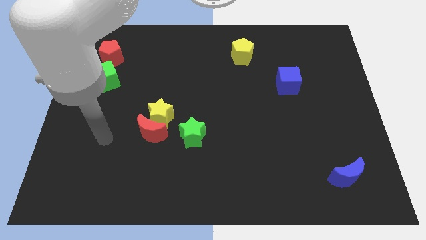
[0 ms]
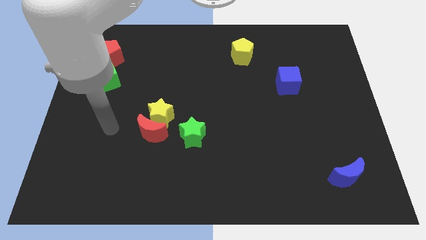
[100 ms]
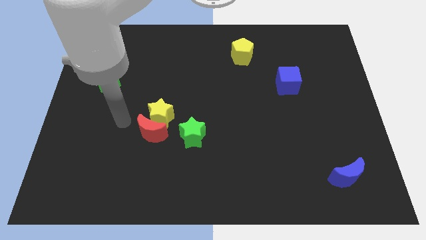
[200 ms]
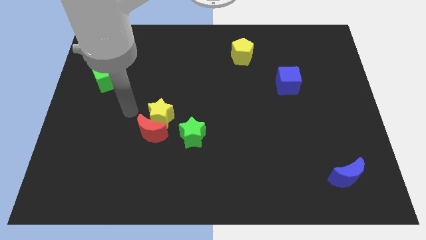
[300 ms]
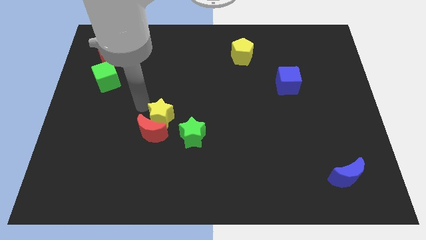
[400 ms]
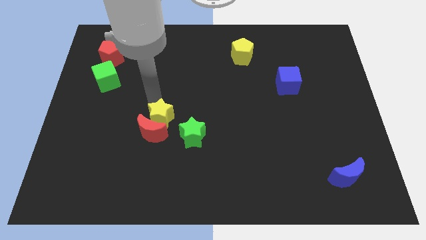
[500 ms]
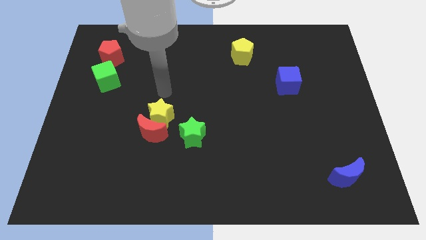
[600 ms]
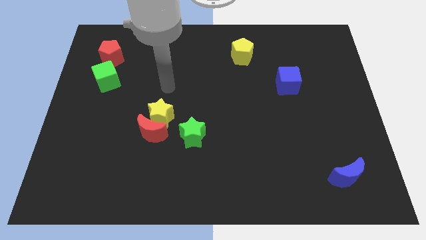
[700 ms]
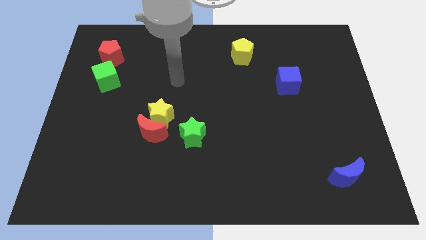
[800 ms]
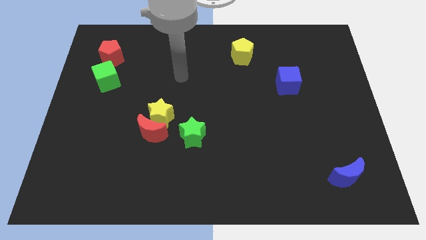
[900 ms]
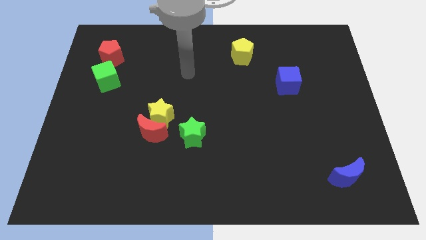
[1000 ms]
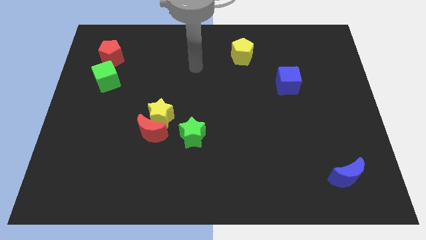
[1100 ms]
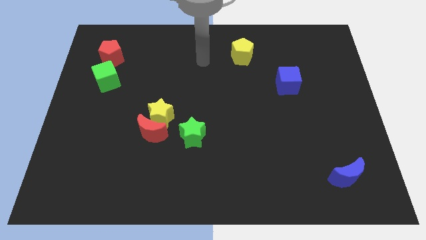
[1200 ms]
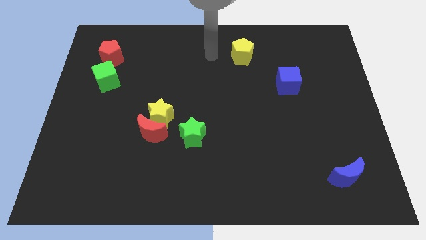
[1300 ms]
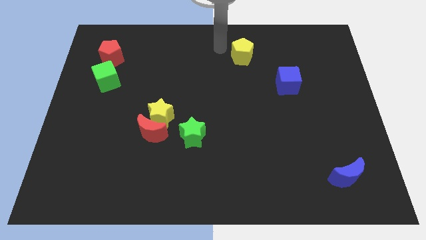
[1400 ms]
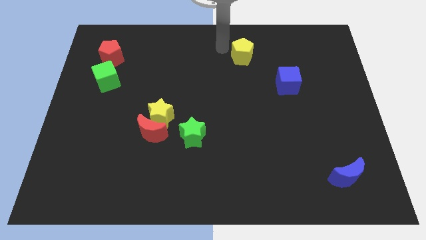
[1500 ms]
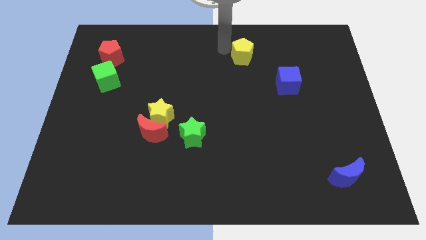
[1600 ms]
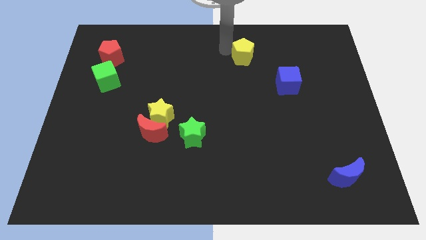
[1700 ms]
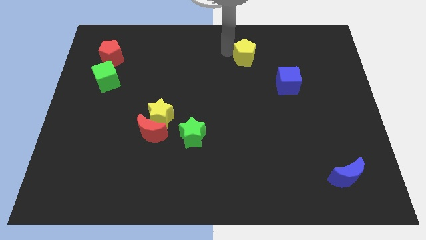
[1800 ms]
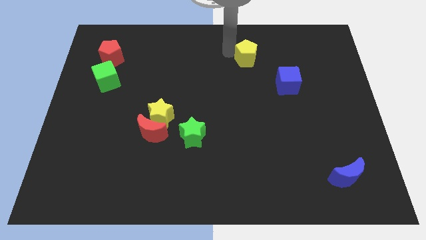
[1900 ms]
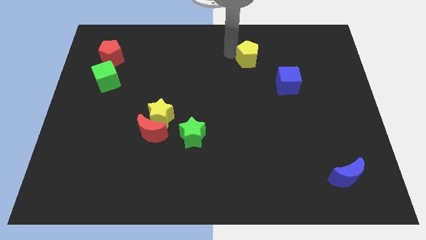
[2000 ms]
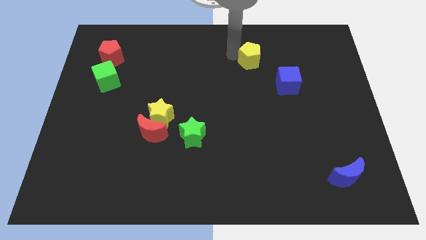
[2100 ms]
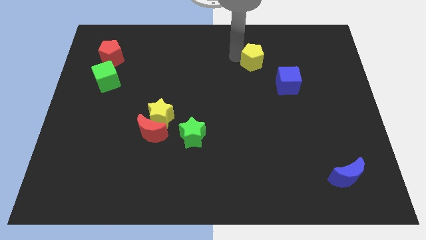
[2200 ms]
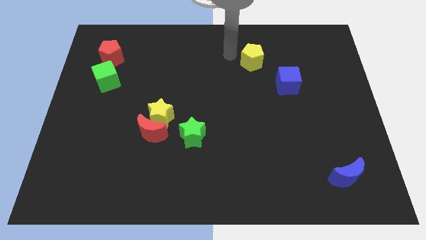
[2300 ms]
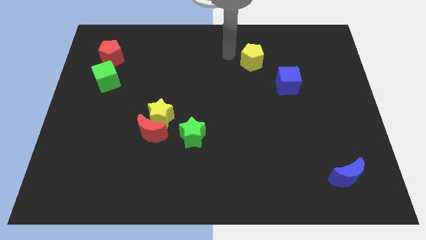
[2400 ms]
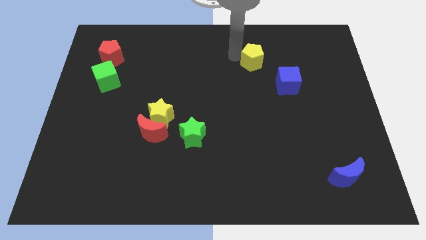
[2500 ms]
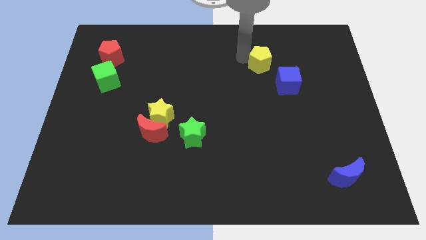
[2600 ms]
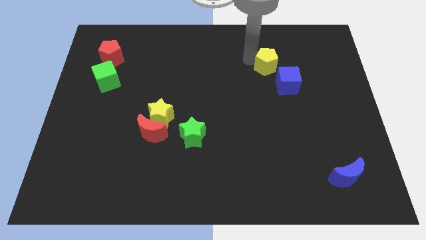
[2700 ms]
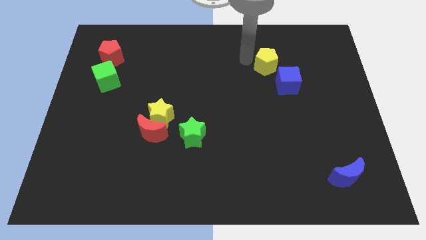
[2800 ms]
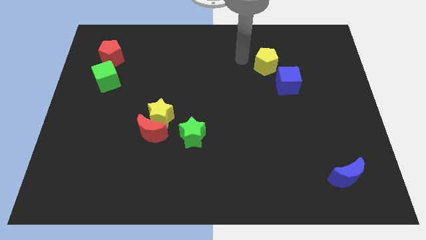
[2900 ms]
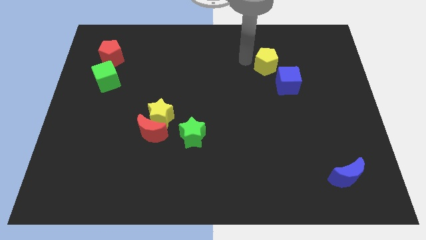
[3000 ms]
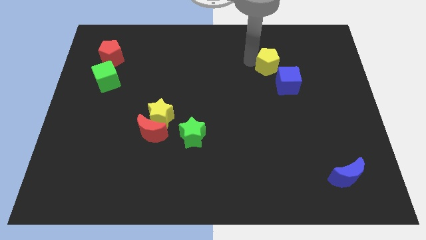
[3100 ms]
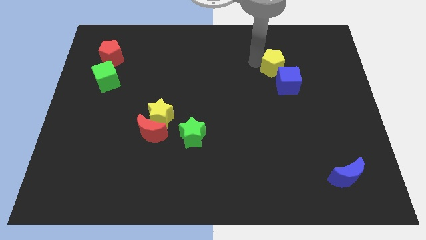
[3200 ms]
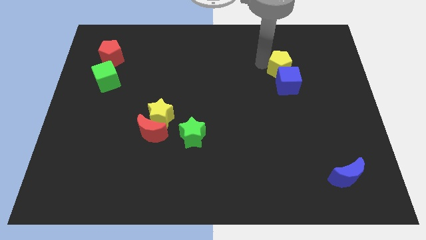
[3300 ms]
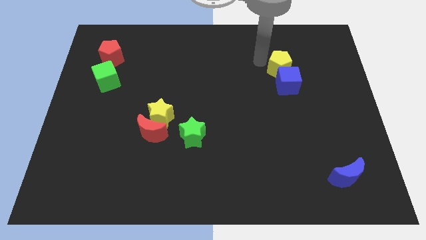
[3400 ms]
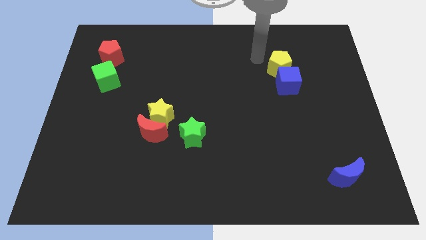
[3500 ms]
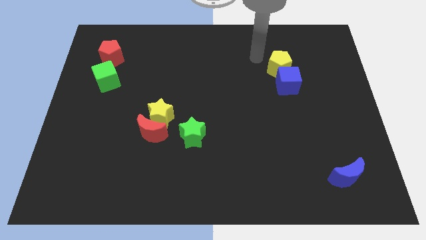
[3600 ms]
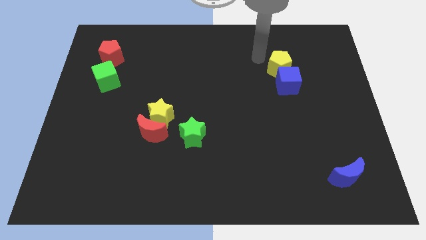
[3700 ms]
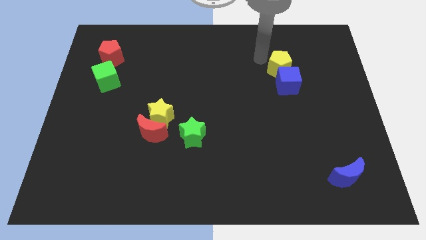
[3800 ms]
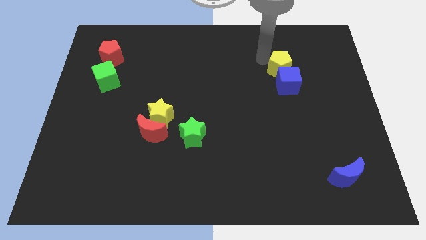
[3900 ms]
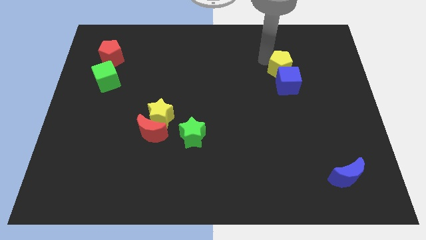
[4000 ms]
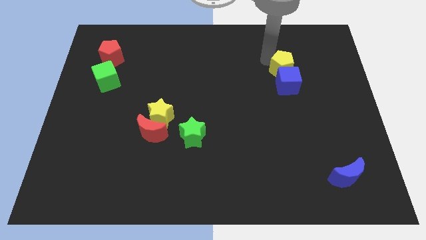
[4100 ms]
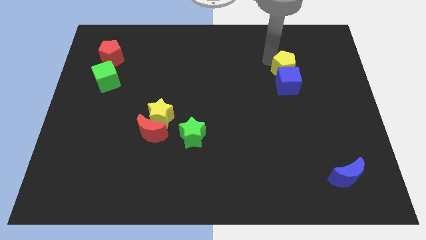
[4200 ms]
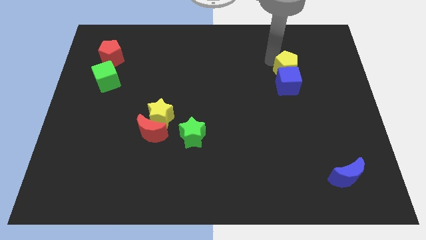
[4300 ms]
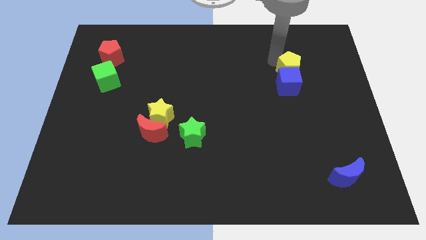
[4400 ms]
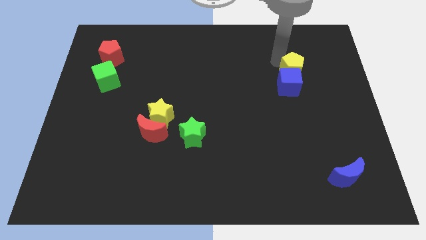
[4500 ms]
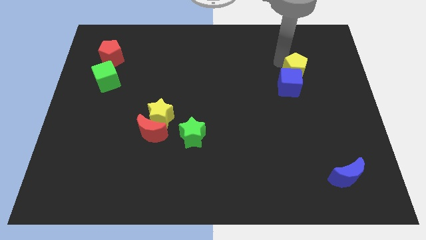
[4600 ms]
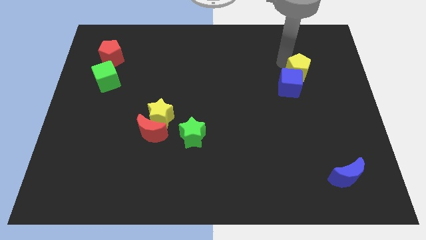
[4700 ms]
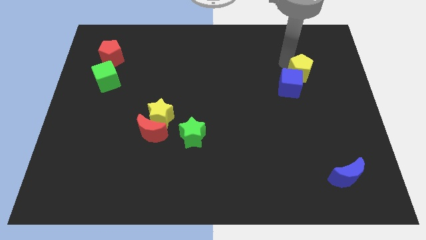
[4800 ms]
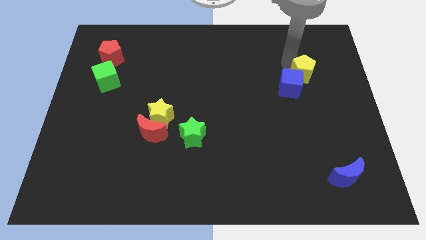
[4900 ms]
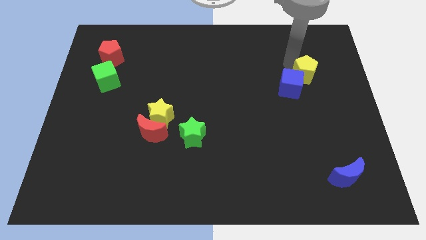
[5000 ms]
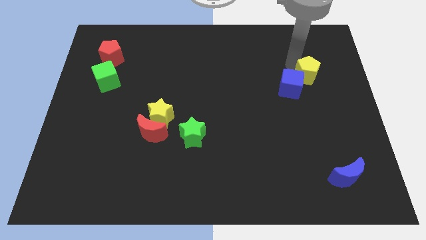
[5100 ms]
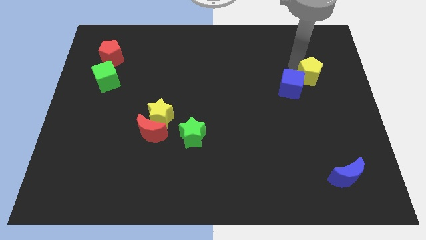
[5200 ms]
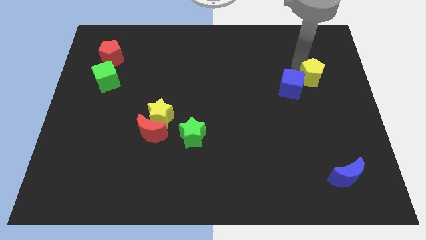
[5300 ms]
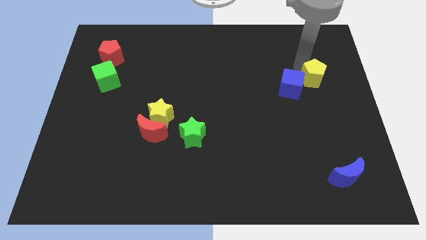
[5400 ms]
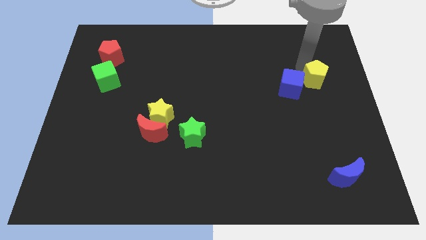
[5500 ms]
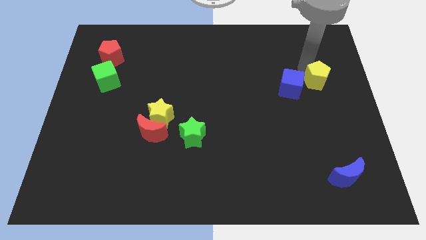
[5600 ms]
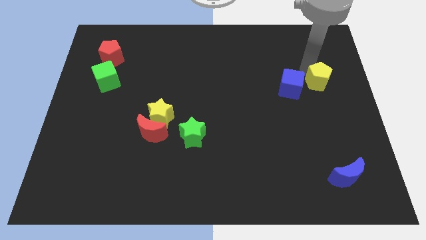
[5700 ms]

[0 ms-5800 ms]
push the yellow pentagon to the right side

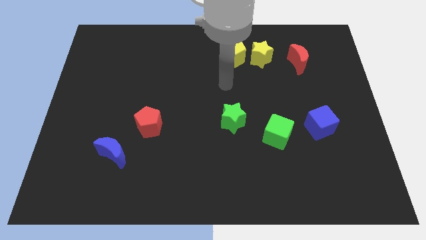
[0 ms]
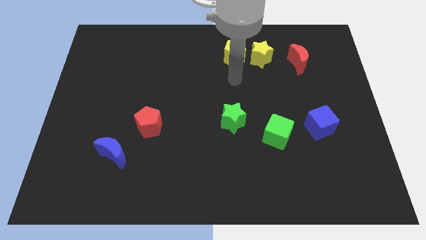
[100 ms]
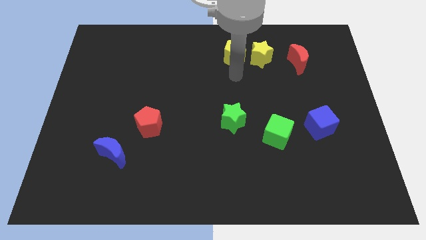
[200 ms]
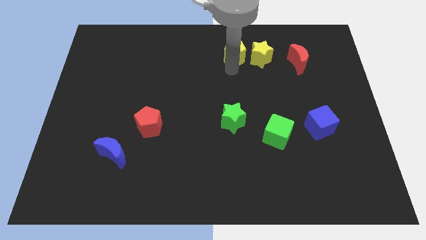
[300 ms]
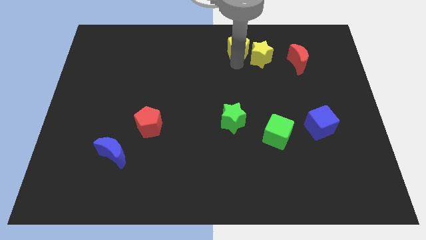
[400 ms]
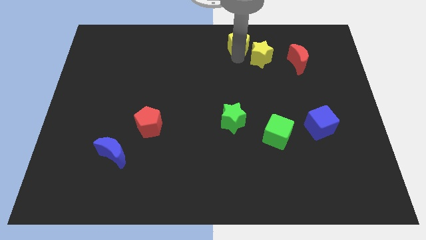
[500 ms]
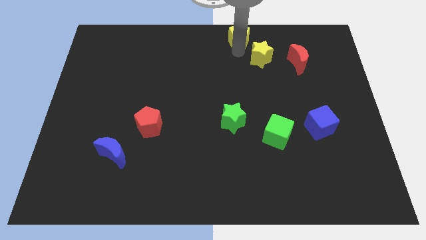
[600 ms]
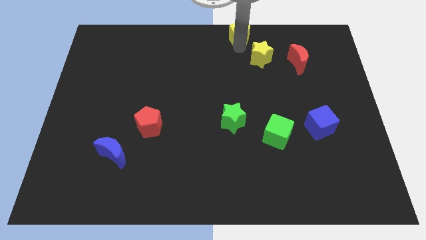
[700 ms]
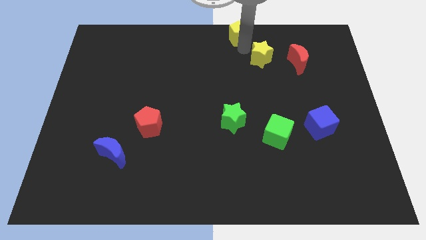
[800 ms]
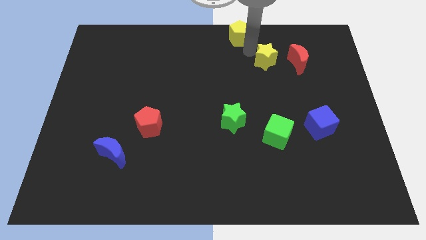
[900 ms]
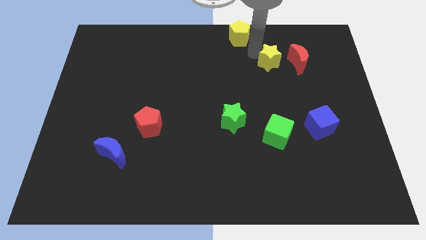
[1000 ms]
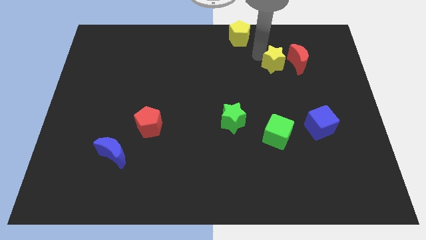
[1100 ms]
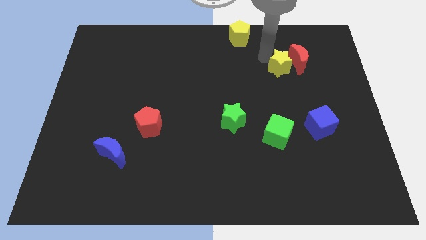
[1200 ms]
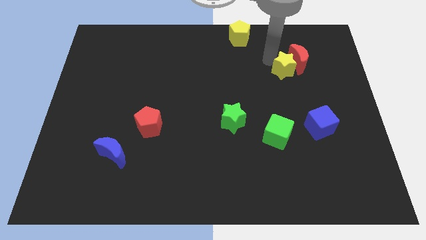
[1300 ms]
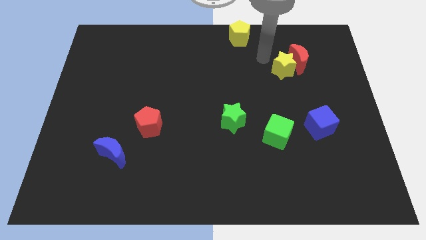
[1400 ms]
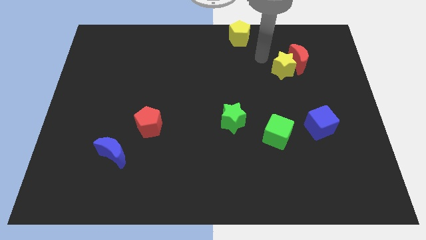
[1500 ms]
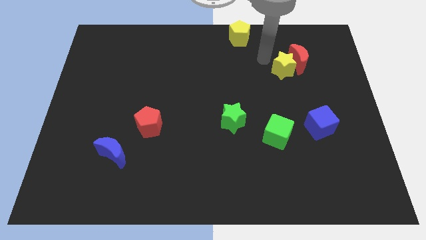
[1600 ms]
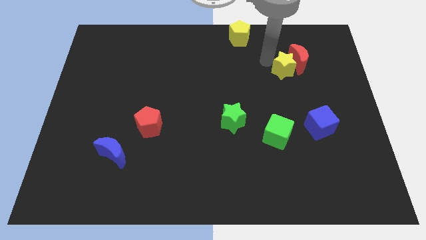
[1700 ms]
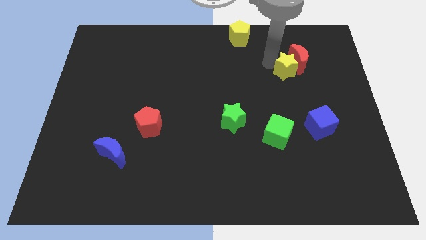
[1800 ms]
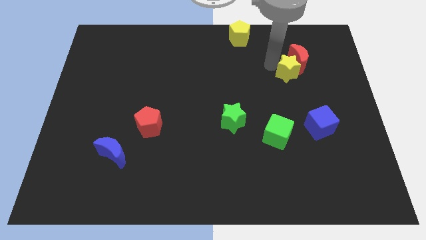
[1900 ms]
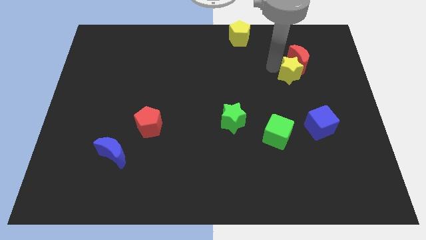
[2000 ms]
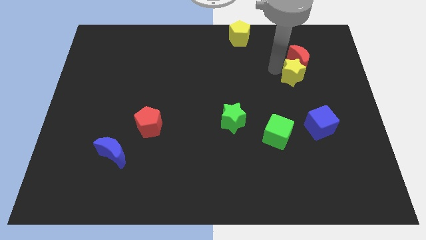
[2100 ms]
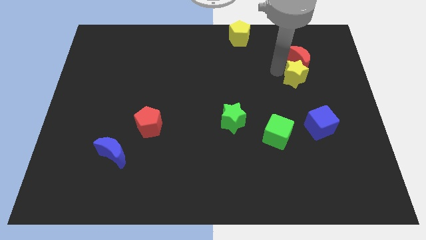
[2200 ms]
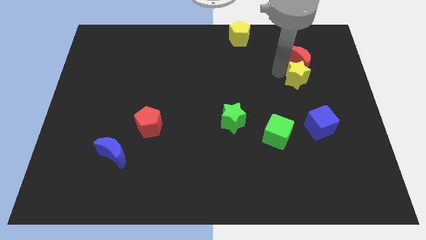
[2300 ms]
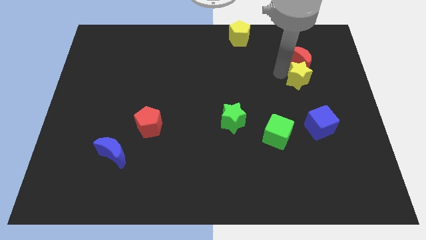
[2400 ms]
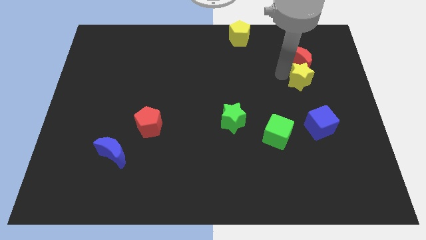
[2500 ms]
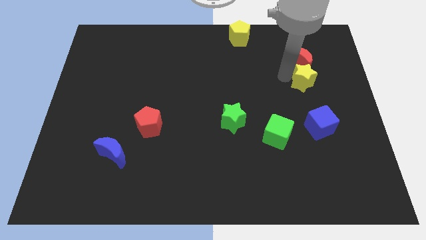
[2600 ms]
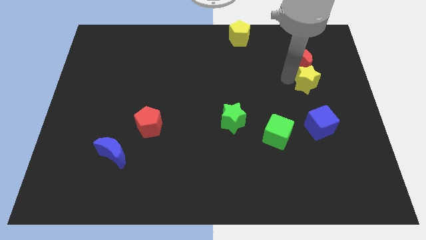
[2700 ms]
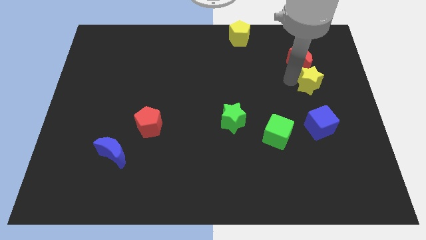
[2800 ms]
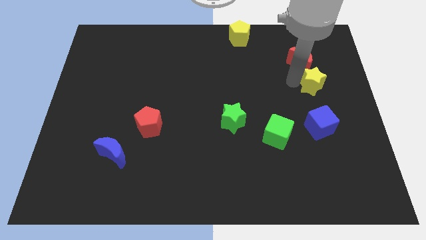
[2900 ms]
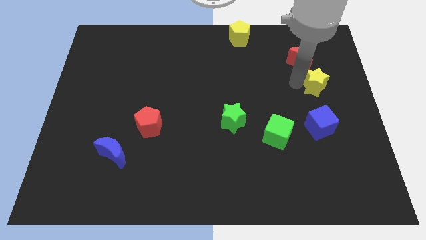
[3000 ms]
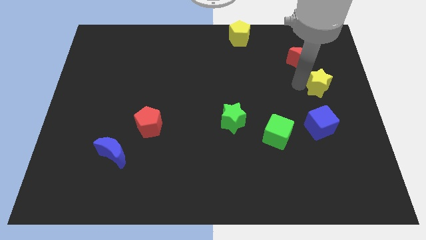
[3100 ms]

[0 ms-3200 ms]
move the yellow star to the right side
